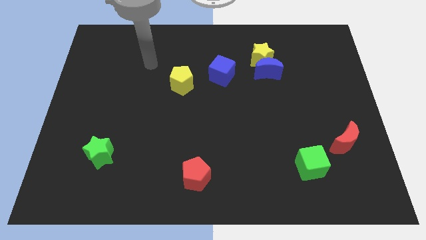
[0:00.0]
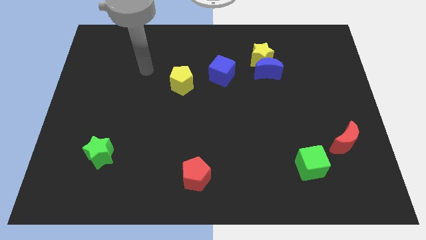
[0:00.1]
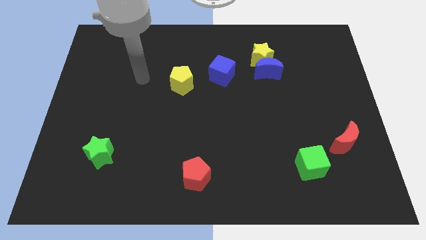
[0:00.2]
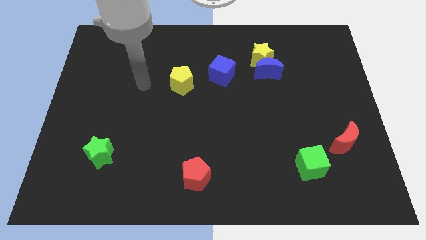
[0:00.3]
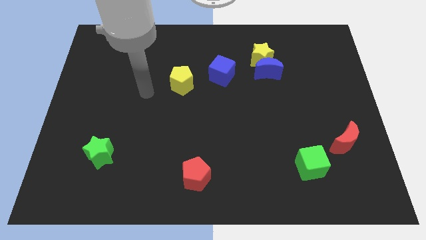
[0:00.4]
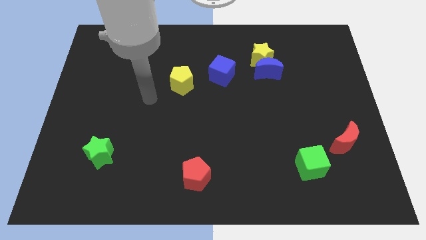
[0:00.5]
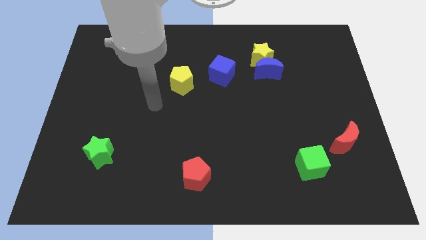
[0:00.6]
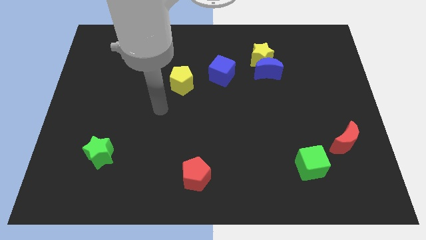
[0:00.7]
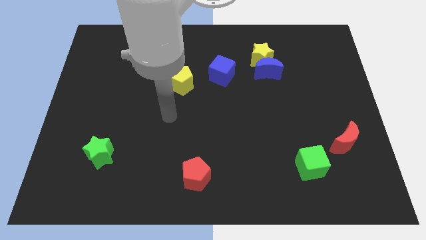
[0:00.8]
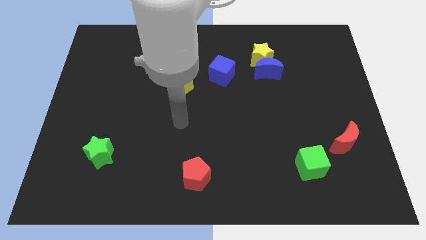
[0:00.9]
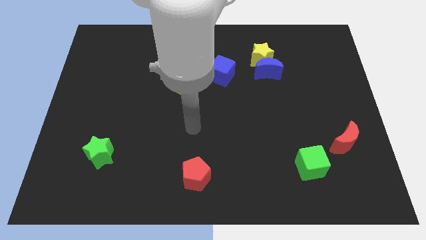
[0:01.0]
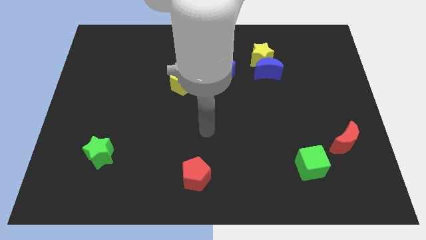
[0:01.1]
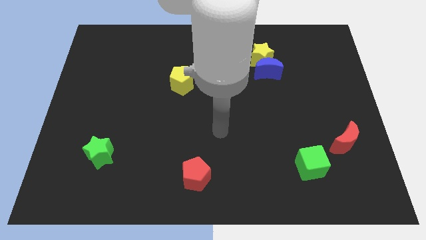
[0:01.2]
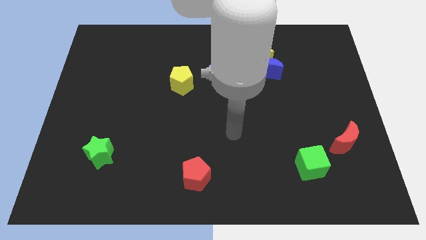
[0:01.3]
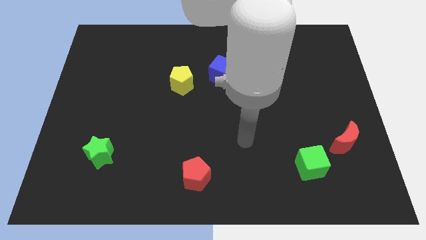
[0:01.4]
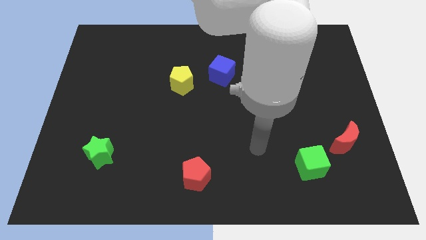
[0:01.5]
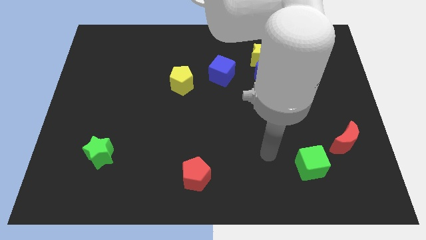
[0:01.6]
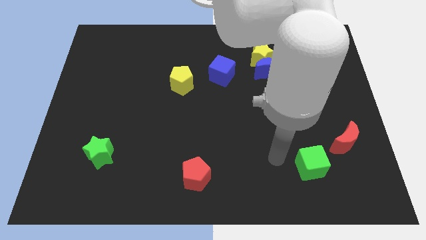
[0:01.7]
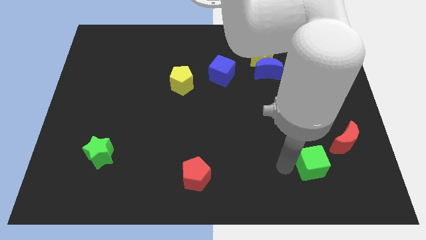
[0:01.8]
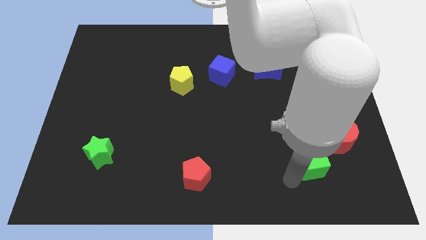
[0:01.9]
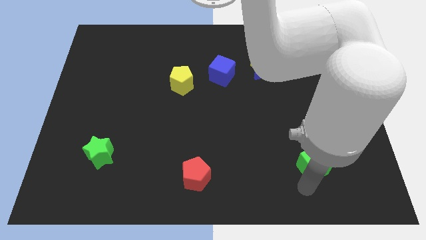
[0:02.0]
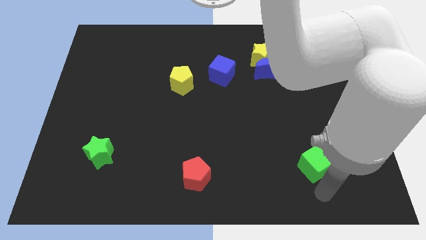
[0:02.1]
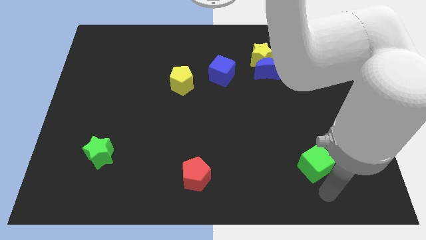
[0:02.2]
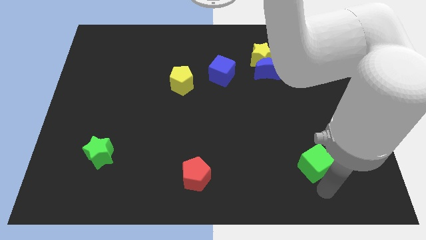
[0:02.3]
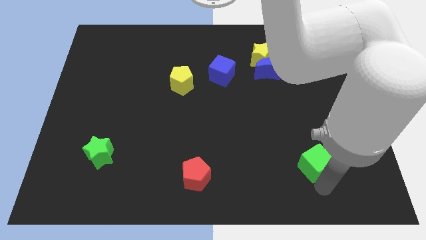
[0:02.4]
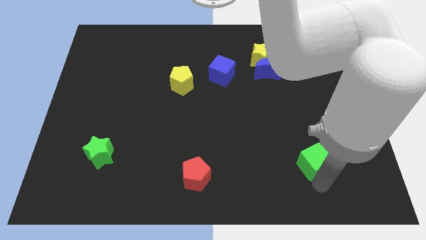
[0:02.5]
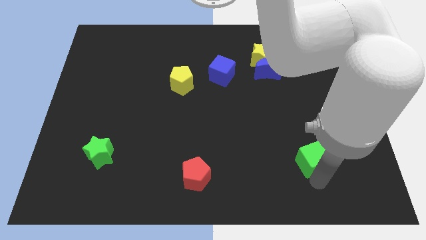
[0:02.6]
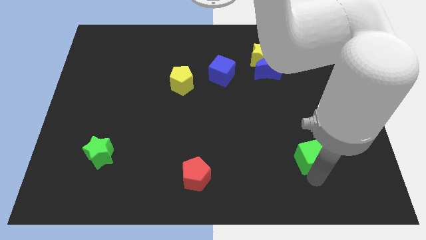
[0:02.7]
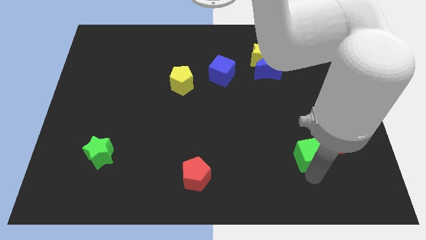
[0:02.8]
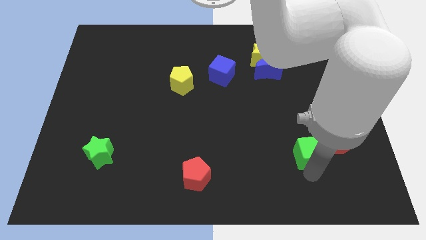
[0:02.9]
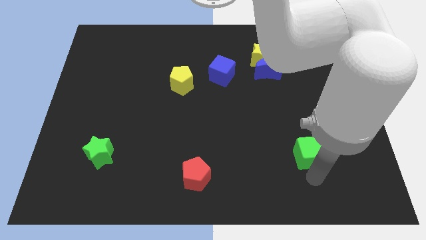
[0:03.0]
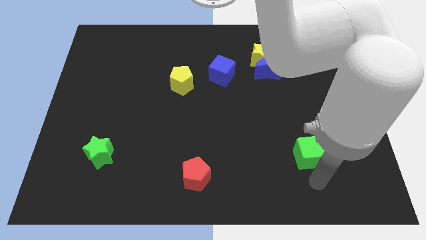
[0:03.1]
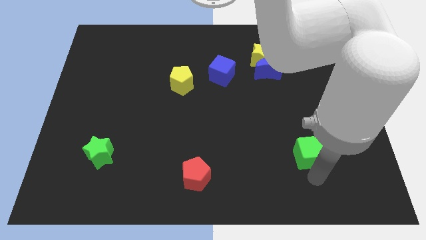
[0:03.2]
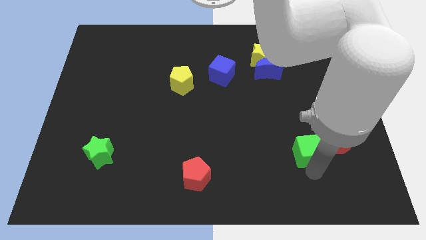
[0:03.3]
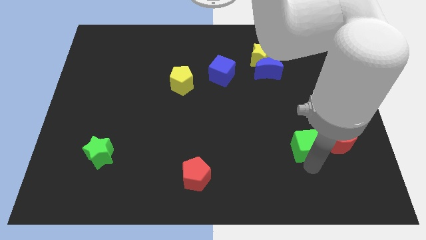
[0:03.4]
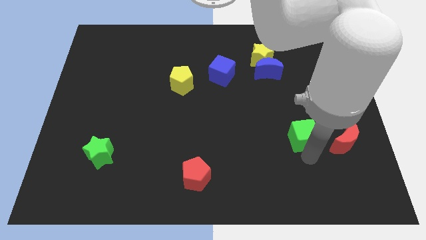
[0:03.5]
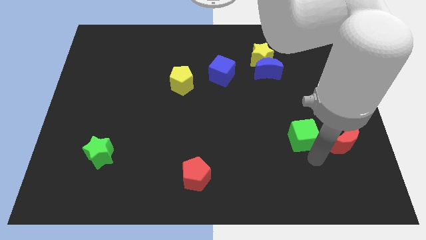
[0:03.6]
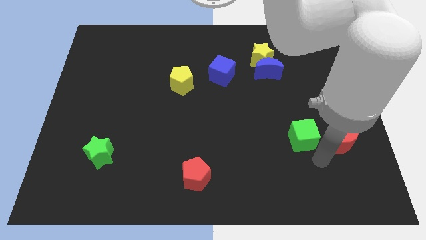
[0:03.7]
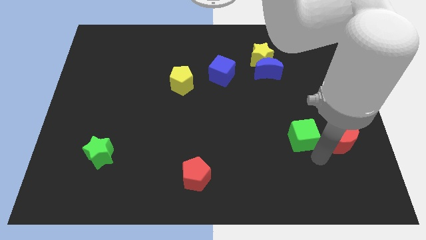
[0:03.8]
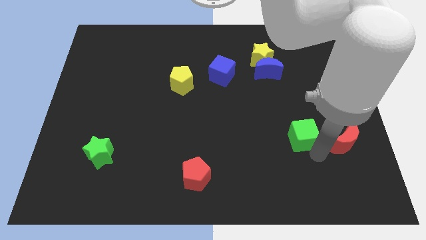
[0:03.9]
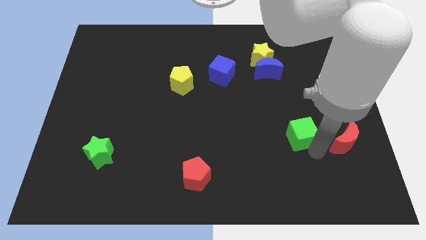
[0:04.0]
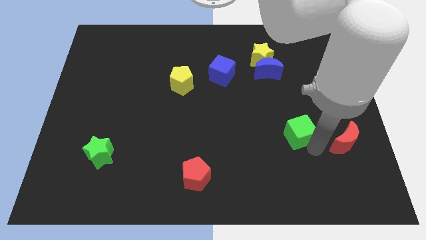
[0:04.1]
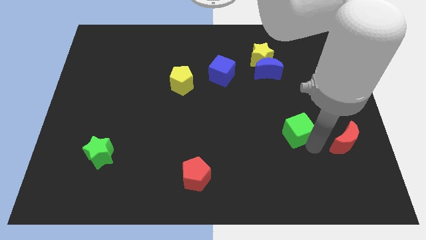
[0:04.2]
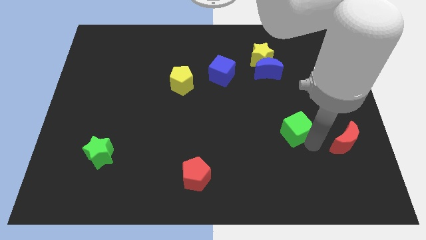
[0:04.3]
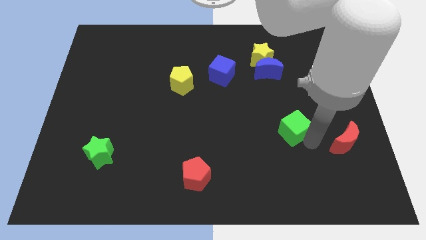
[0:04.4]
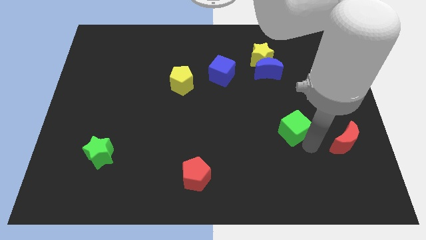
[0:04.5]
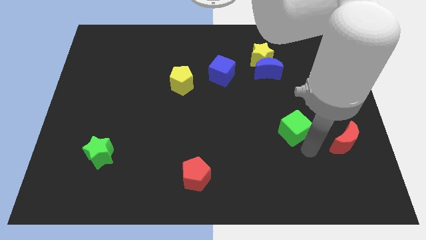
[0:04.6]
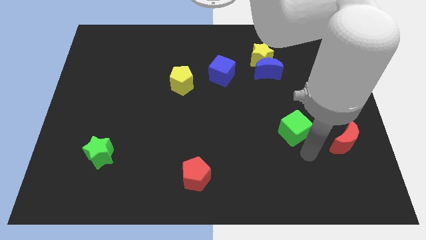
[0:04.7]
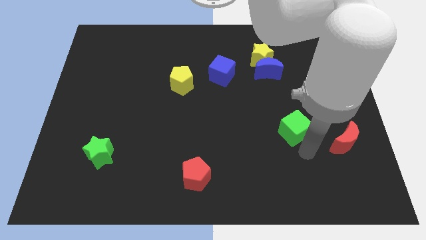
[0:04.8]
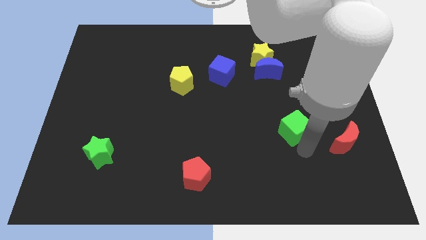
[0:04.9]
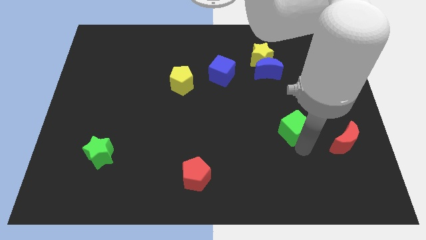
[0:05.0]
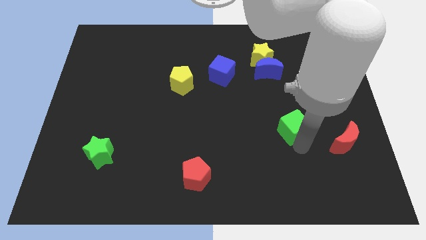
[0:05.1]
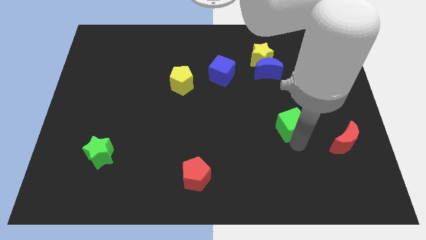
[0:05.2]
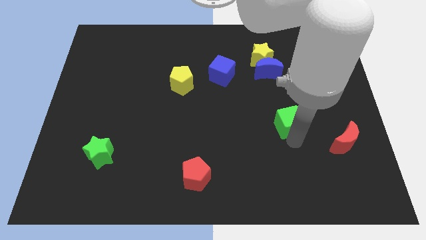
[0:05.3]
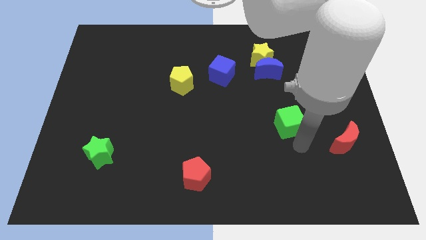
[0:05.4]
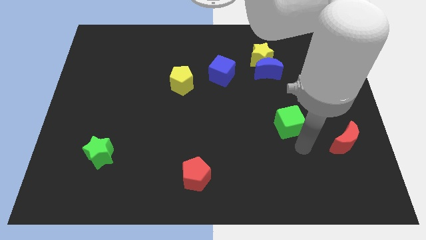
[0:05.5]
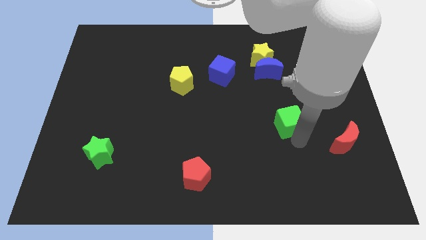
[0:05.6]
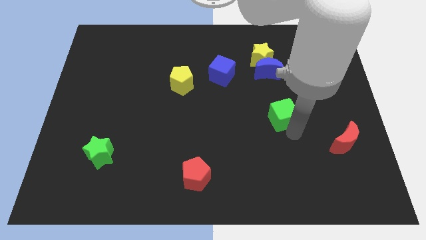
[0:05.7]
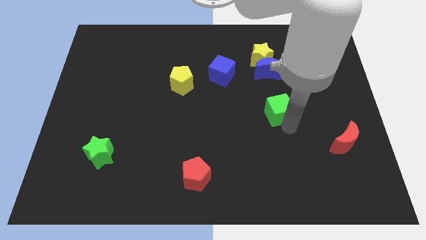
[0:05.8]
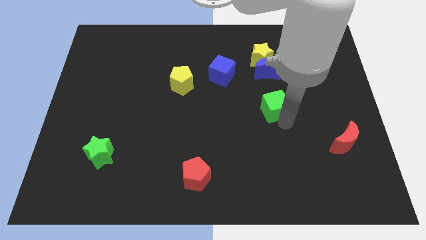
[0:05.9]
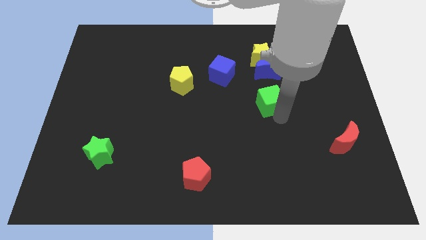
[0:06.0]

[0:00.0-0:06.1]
push the green cube to the bottom of the yellow star

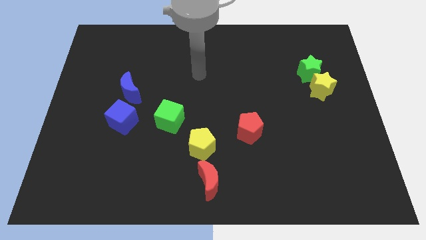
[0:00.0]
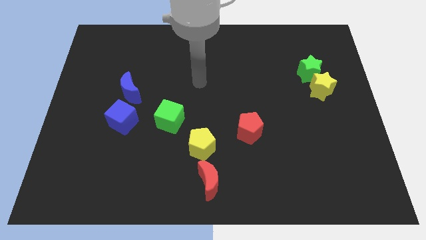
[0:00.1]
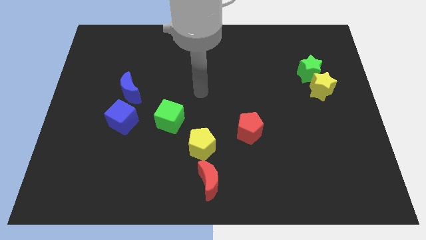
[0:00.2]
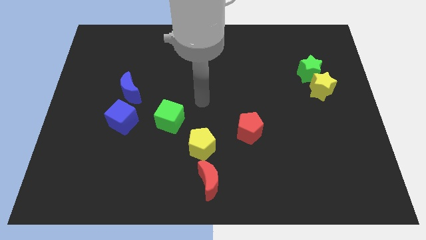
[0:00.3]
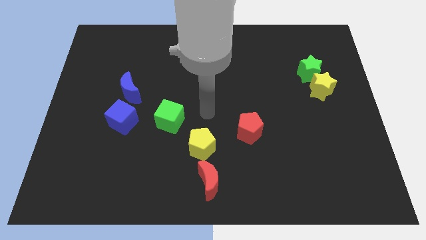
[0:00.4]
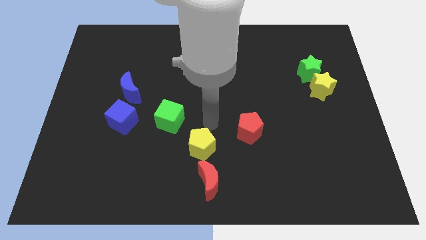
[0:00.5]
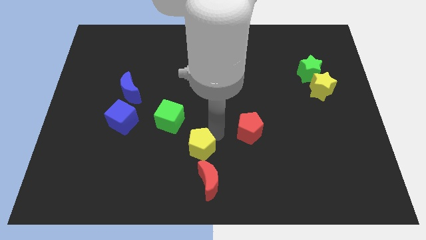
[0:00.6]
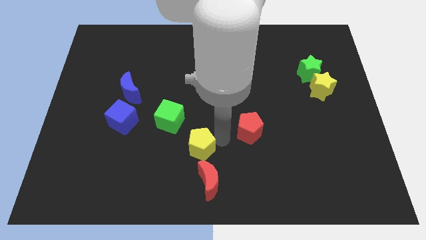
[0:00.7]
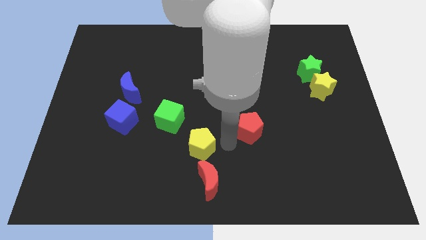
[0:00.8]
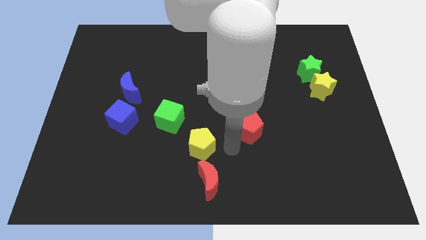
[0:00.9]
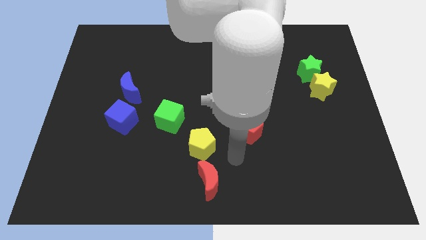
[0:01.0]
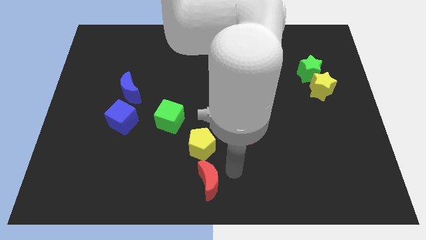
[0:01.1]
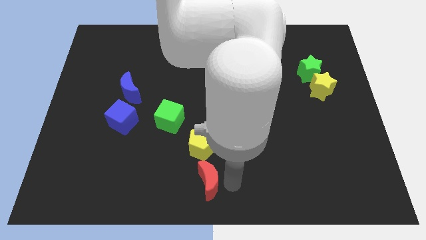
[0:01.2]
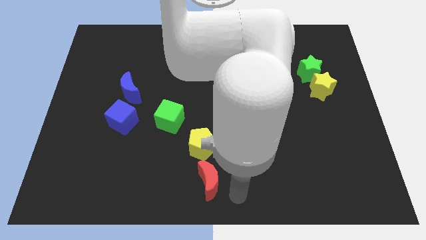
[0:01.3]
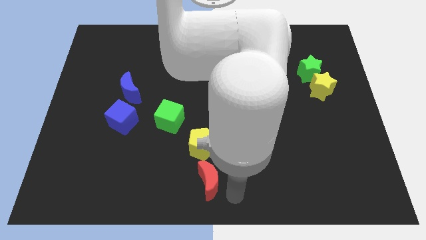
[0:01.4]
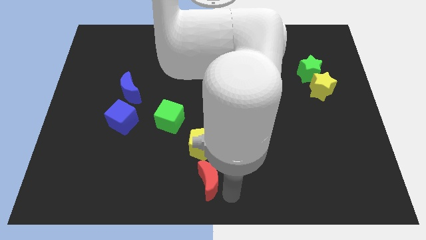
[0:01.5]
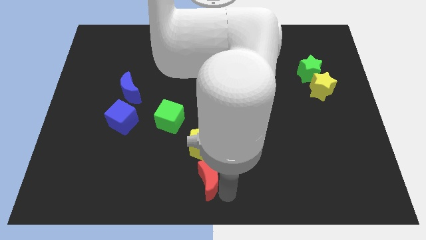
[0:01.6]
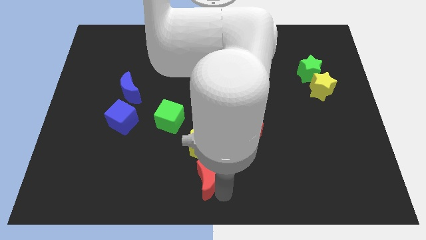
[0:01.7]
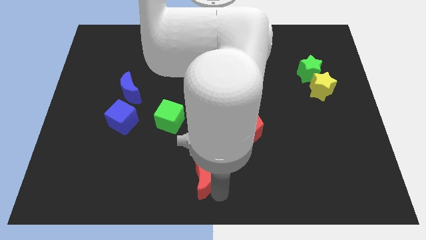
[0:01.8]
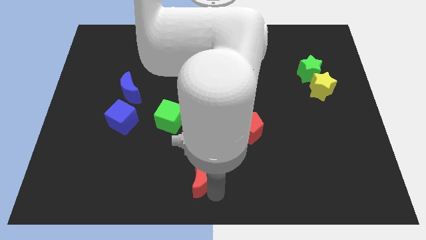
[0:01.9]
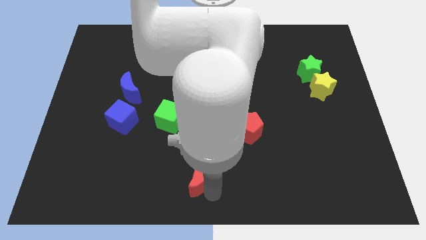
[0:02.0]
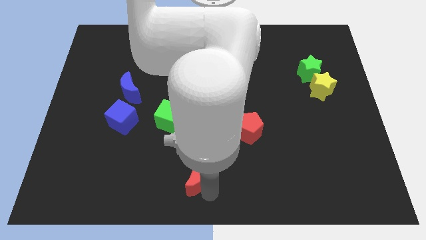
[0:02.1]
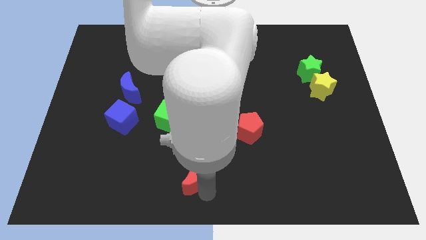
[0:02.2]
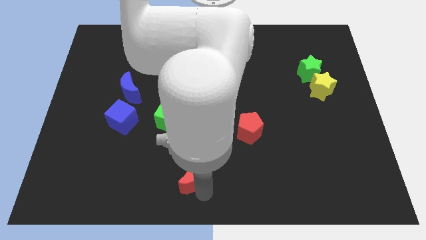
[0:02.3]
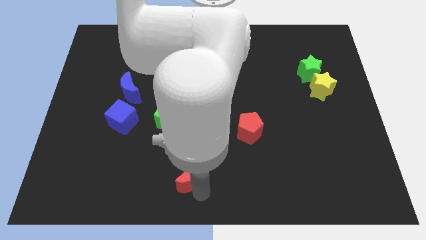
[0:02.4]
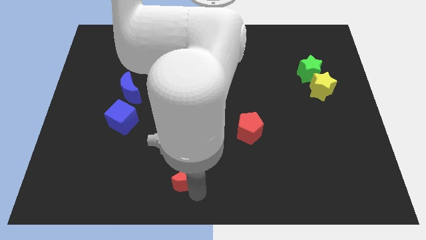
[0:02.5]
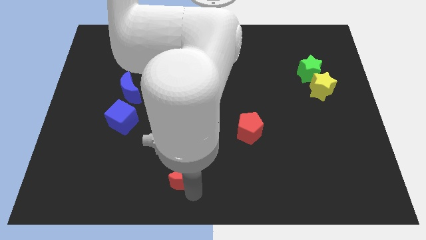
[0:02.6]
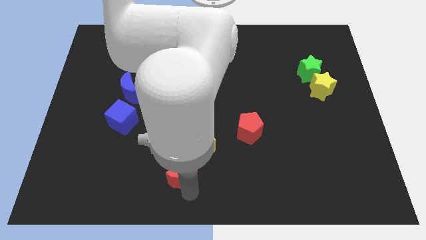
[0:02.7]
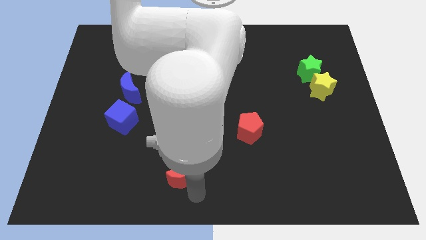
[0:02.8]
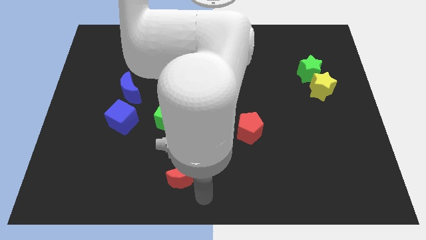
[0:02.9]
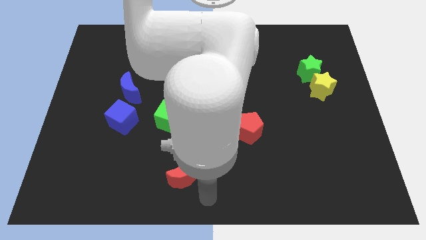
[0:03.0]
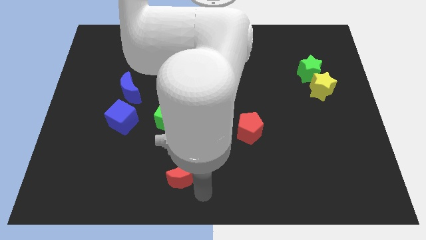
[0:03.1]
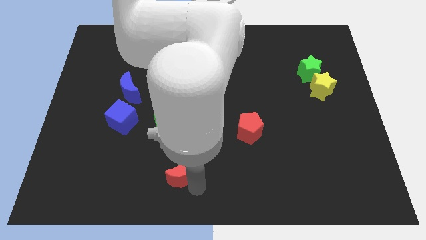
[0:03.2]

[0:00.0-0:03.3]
move the red moon to the bottom of the green cube
